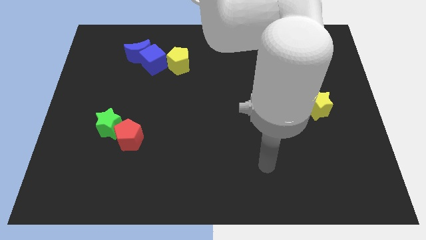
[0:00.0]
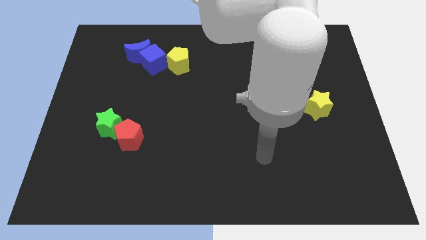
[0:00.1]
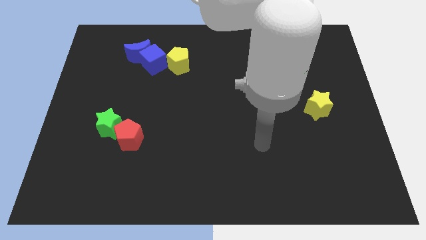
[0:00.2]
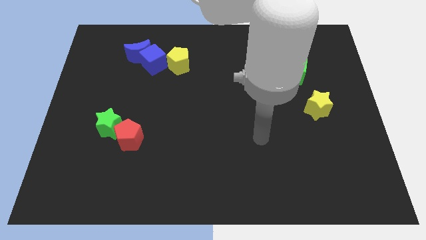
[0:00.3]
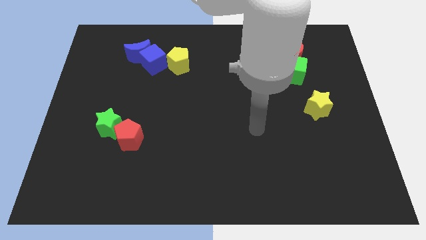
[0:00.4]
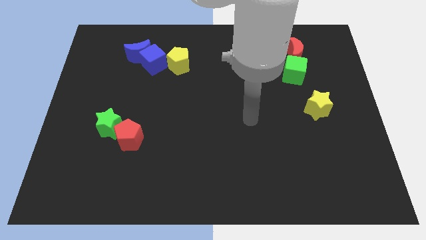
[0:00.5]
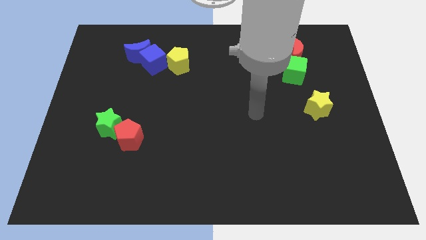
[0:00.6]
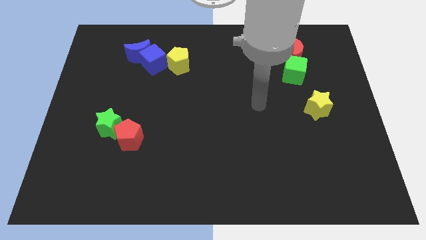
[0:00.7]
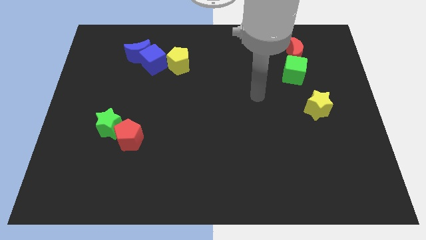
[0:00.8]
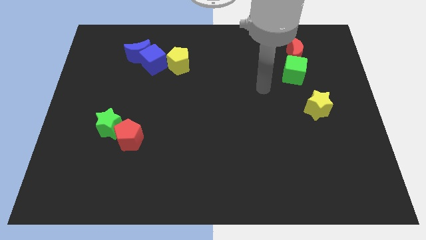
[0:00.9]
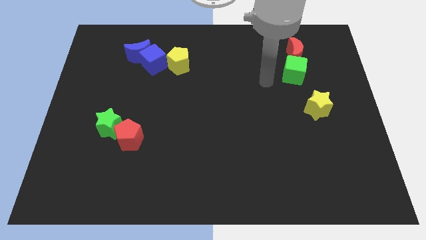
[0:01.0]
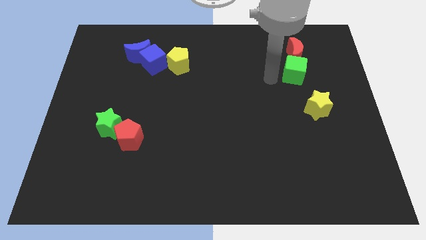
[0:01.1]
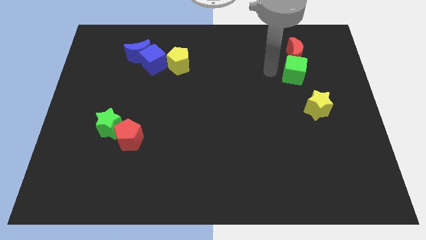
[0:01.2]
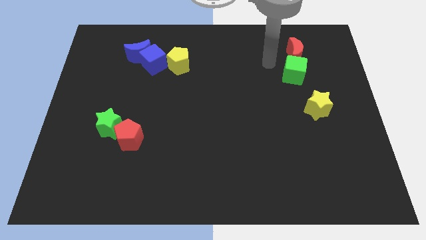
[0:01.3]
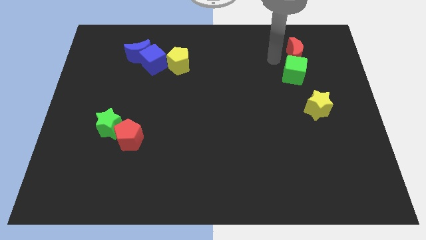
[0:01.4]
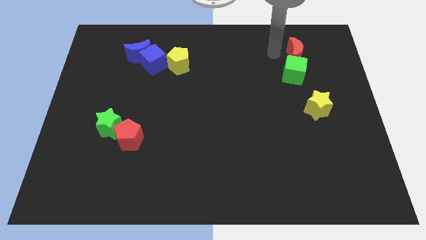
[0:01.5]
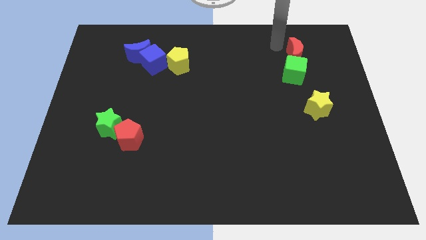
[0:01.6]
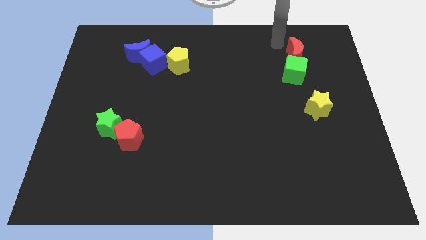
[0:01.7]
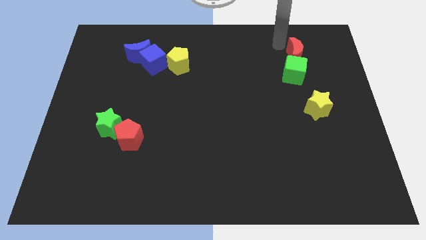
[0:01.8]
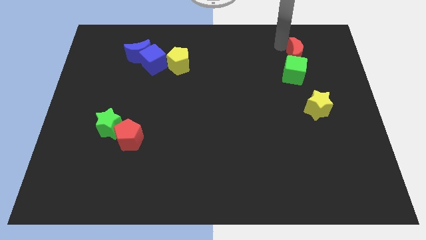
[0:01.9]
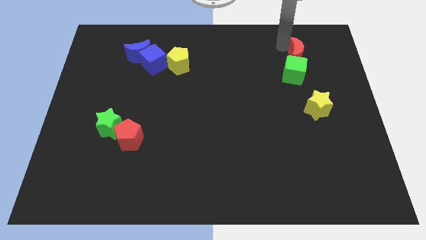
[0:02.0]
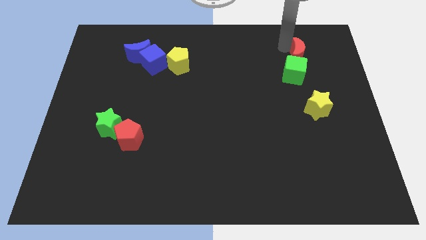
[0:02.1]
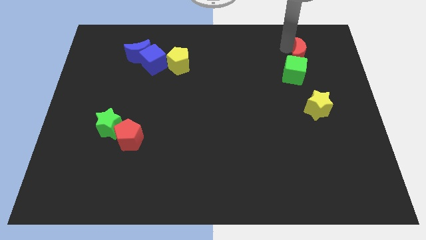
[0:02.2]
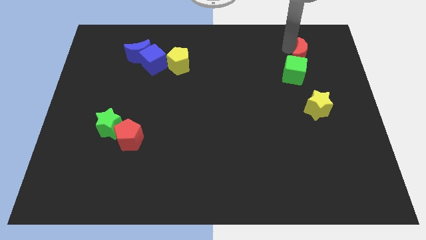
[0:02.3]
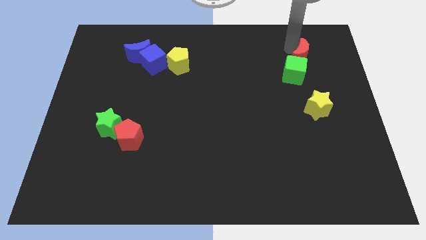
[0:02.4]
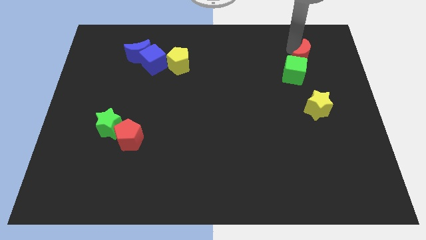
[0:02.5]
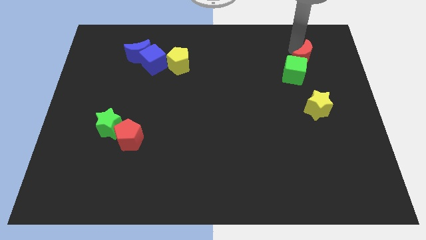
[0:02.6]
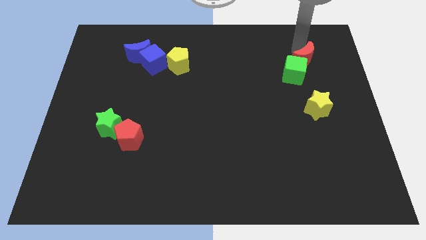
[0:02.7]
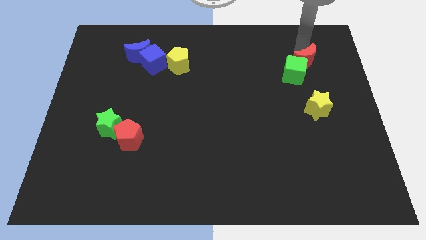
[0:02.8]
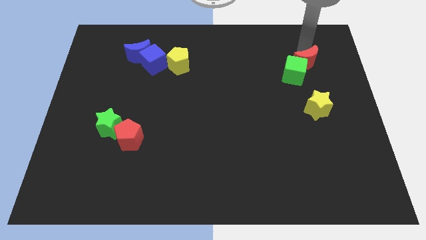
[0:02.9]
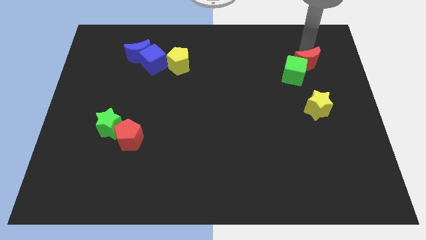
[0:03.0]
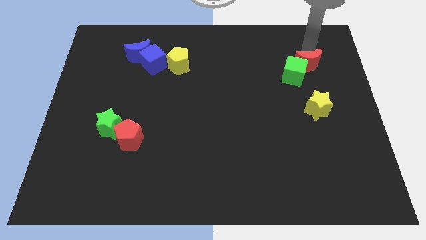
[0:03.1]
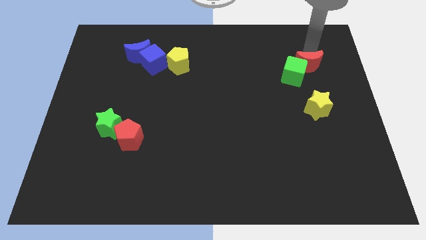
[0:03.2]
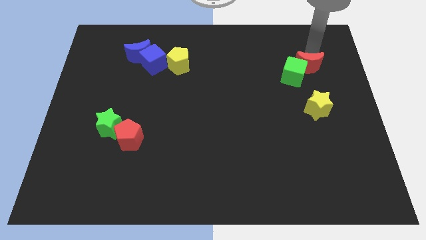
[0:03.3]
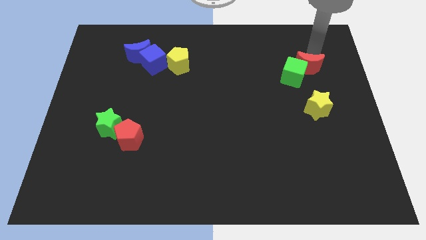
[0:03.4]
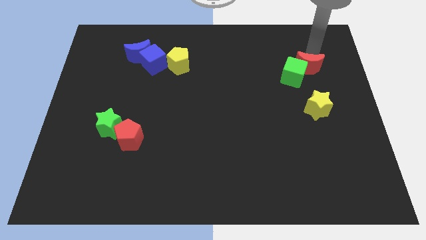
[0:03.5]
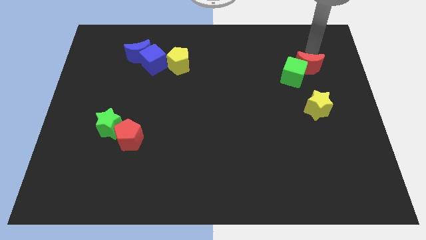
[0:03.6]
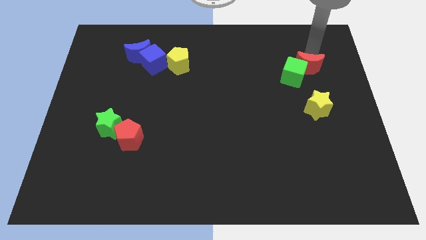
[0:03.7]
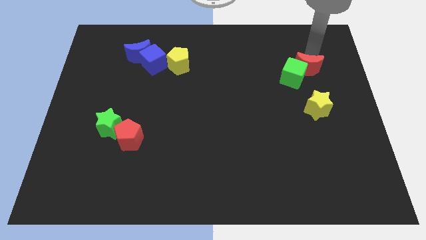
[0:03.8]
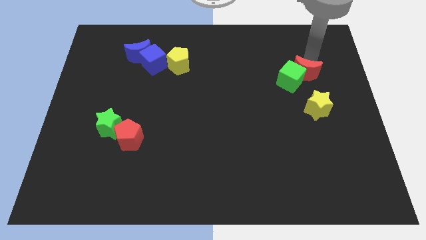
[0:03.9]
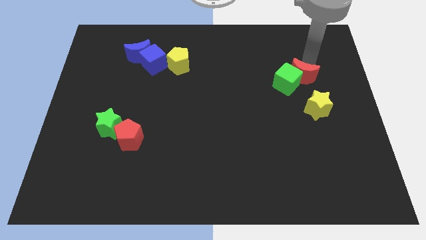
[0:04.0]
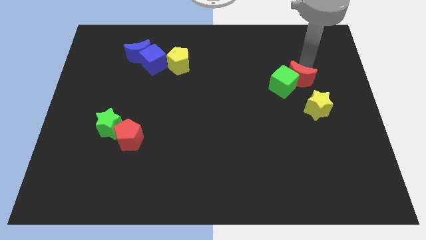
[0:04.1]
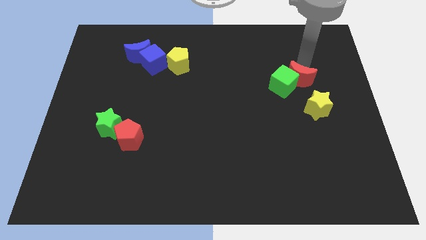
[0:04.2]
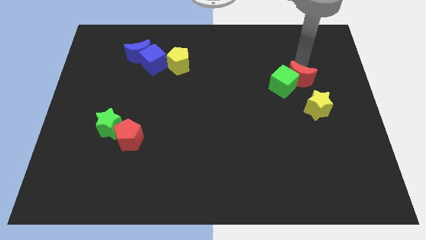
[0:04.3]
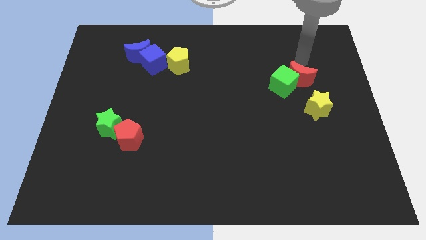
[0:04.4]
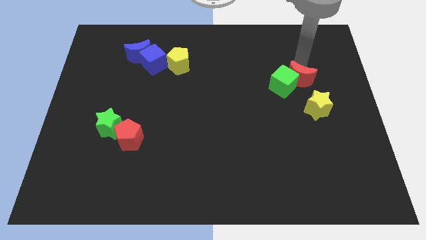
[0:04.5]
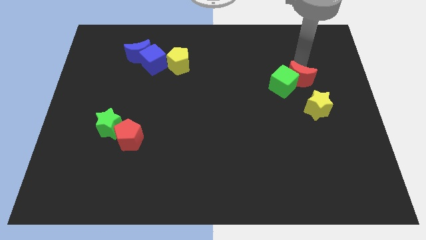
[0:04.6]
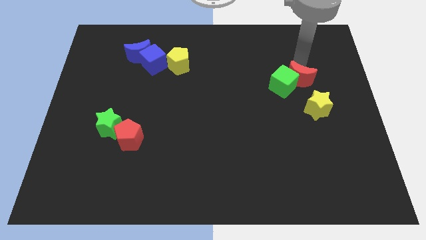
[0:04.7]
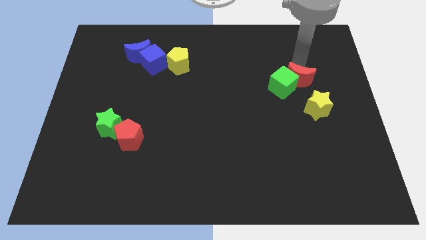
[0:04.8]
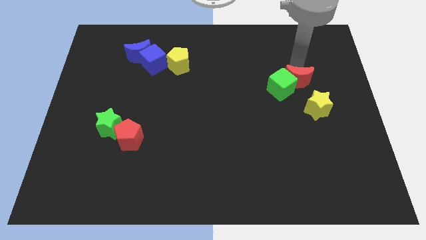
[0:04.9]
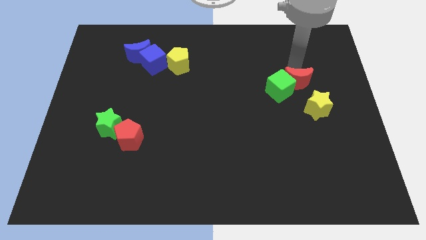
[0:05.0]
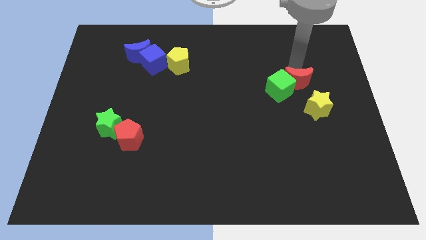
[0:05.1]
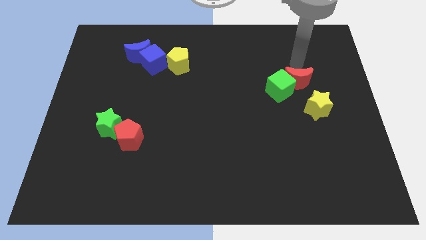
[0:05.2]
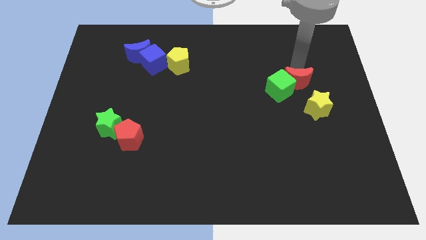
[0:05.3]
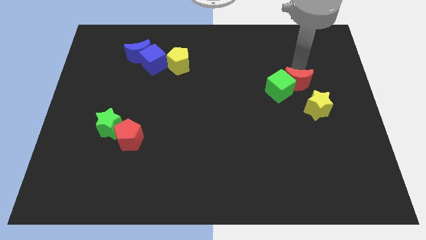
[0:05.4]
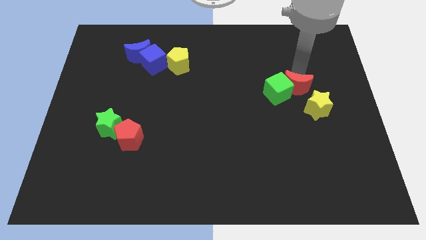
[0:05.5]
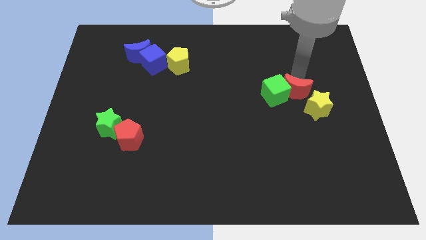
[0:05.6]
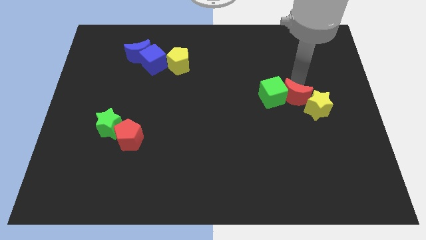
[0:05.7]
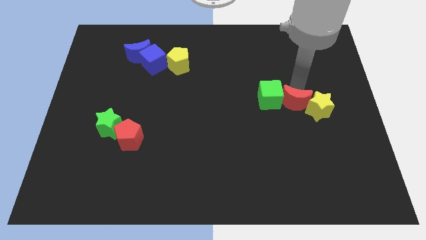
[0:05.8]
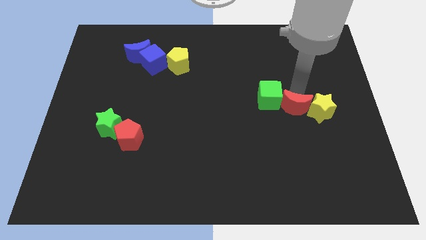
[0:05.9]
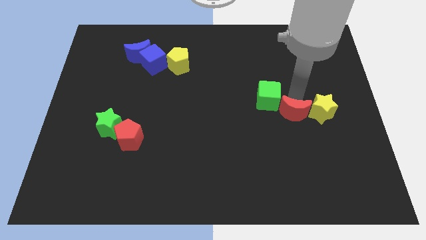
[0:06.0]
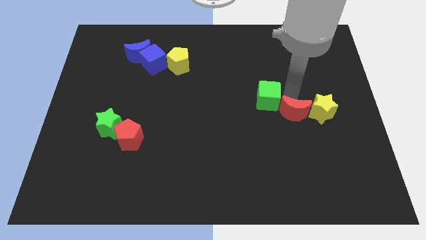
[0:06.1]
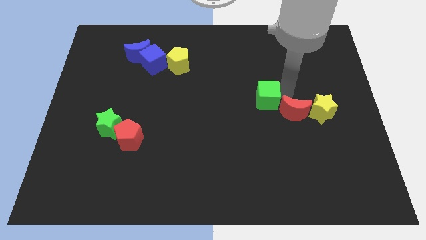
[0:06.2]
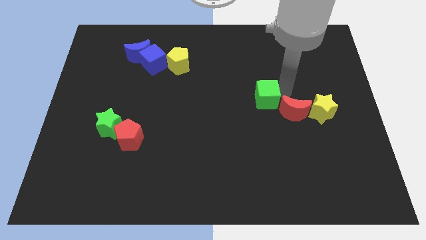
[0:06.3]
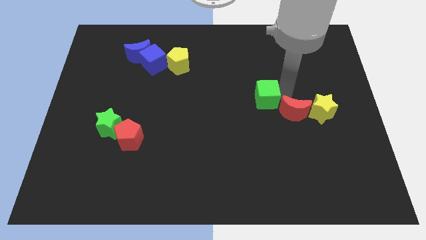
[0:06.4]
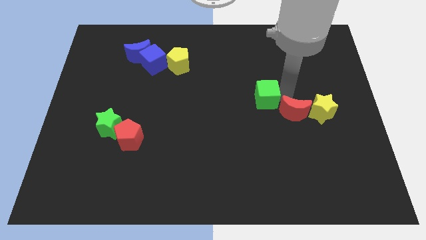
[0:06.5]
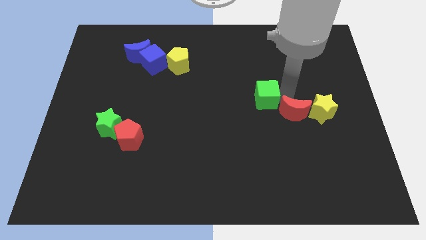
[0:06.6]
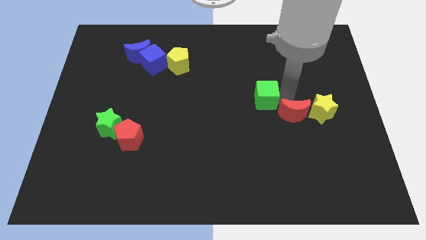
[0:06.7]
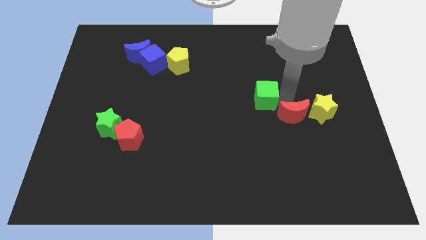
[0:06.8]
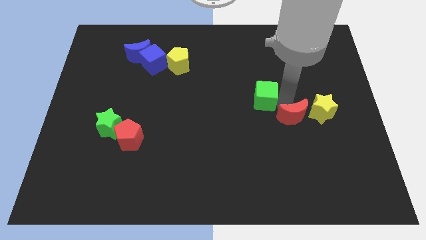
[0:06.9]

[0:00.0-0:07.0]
push the red moon downwards

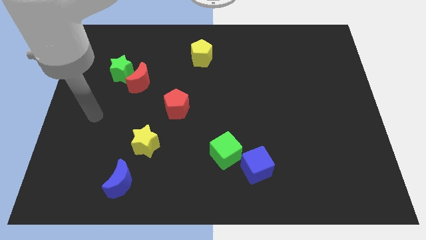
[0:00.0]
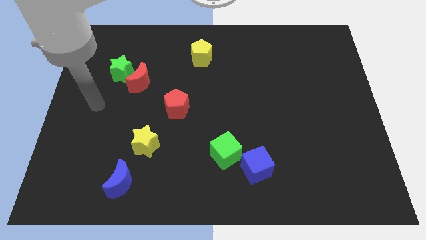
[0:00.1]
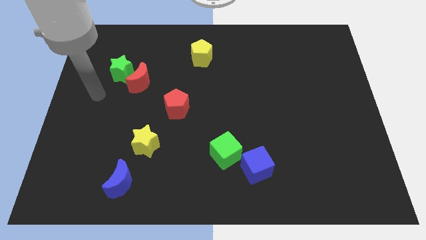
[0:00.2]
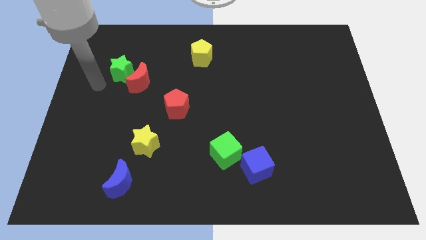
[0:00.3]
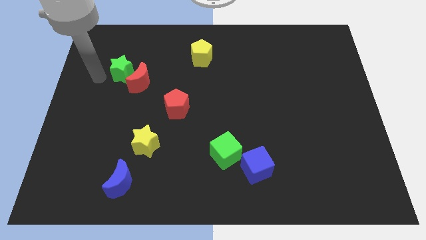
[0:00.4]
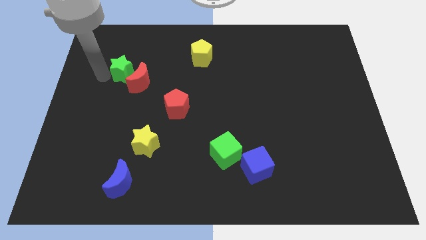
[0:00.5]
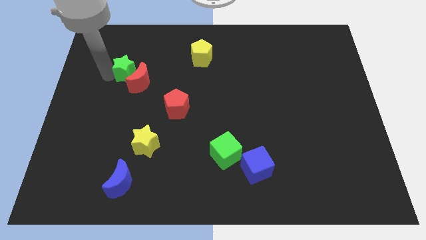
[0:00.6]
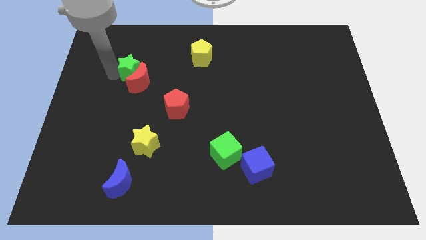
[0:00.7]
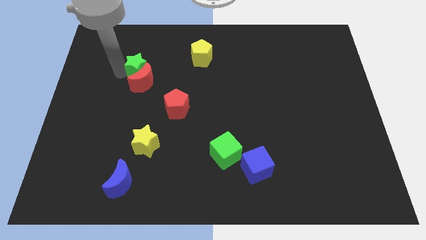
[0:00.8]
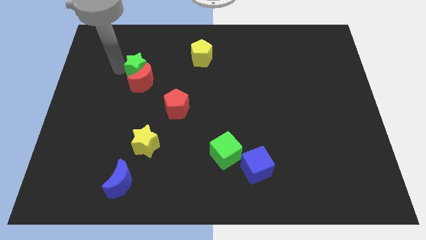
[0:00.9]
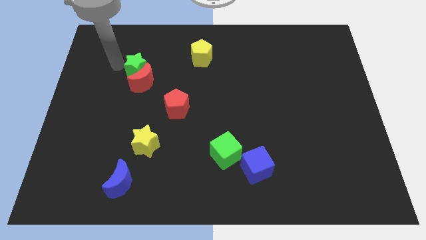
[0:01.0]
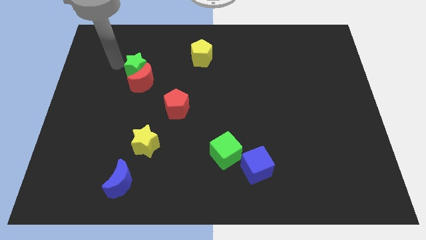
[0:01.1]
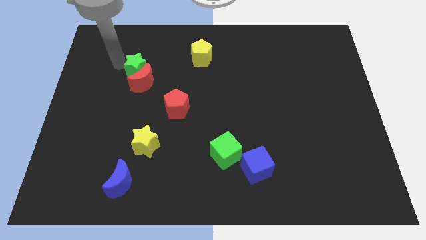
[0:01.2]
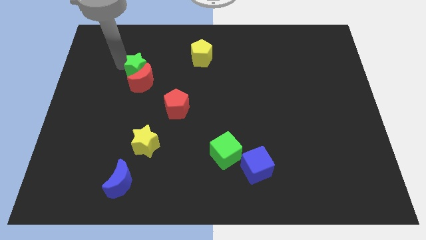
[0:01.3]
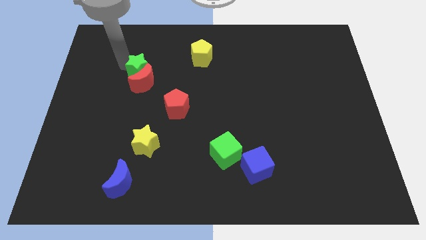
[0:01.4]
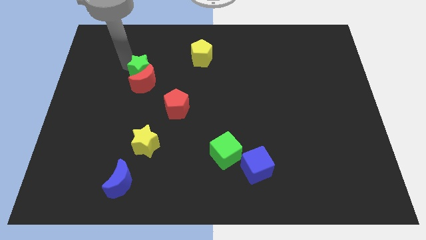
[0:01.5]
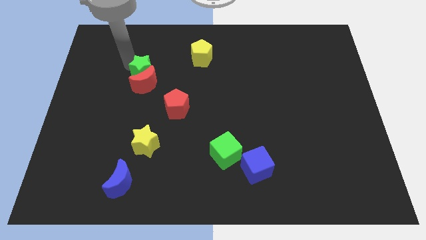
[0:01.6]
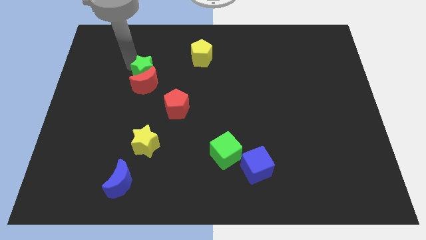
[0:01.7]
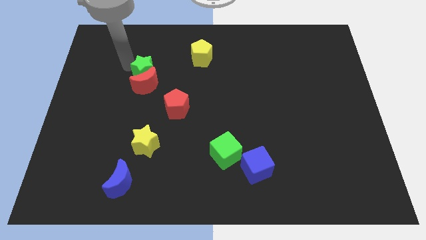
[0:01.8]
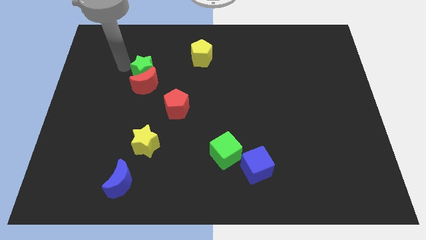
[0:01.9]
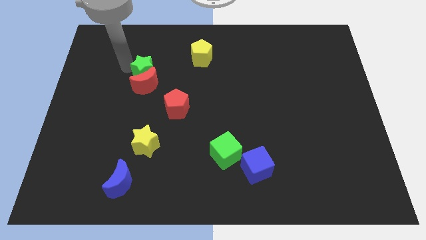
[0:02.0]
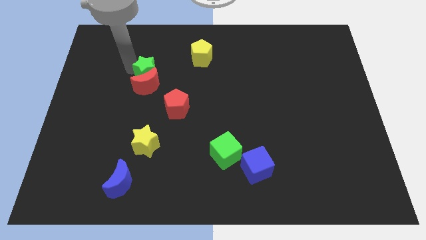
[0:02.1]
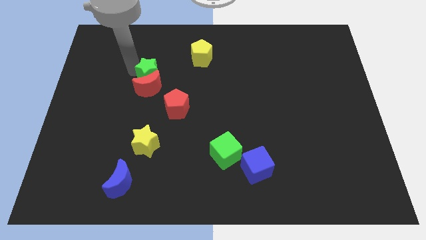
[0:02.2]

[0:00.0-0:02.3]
push the green star to the right somewhat
